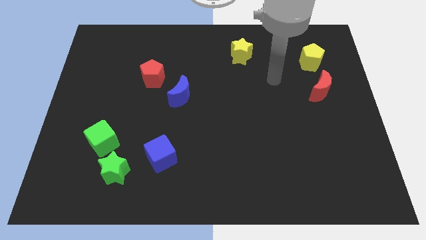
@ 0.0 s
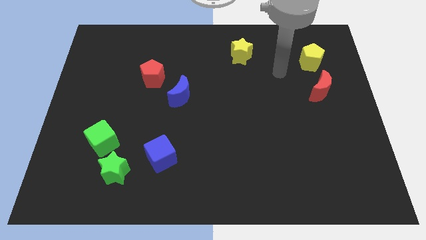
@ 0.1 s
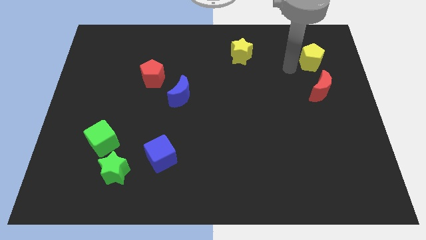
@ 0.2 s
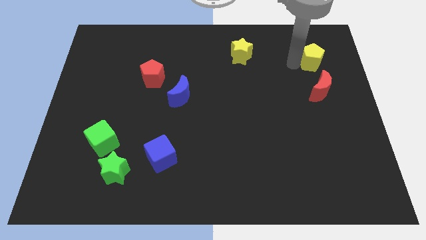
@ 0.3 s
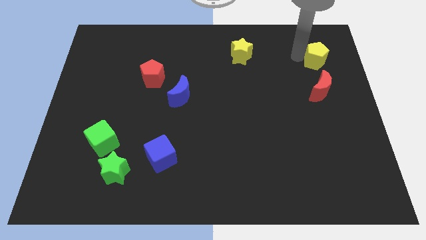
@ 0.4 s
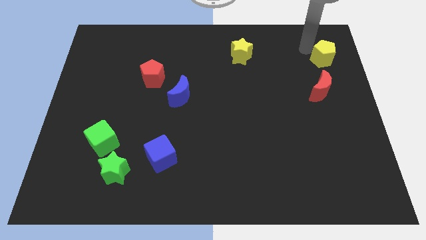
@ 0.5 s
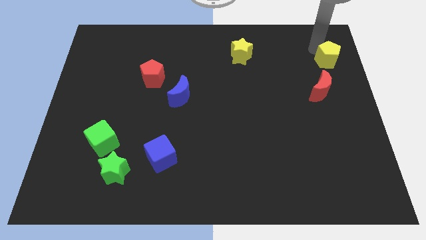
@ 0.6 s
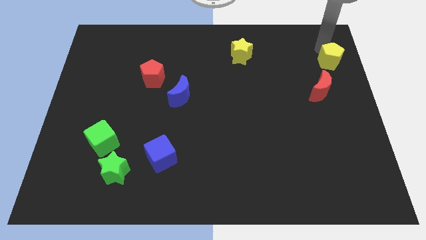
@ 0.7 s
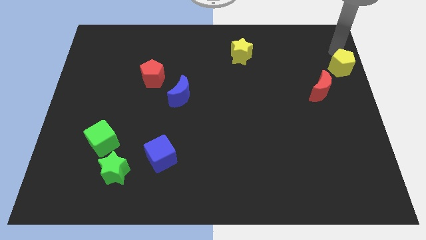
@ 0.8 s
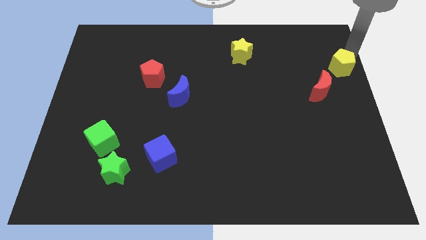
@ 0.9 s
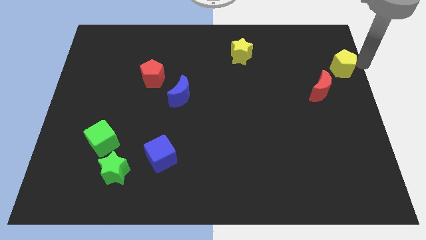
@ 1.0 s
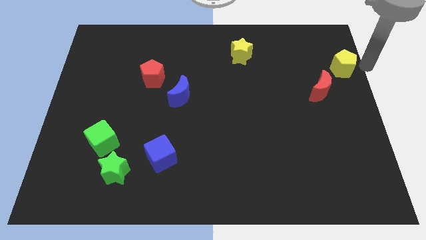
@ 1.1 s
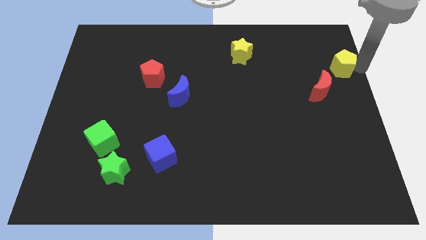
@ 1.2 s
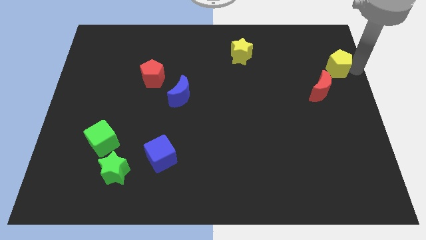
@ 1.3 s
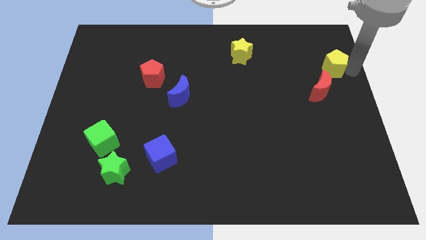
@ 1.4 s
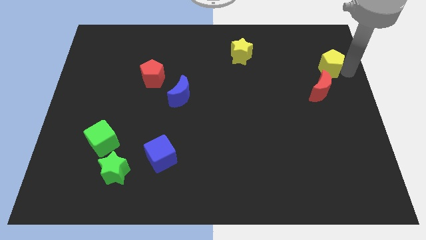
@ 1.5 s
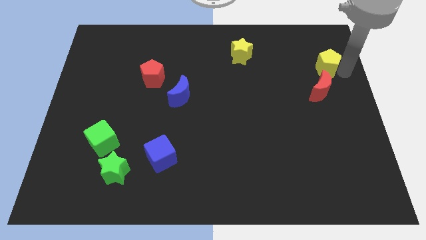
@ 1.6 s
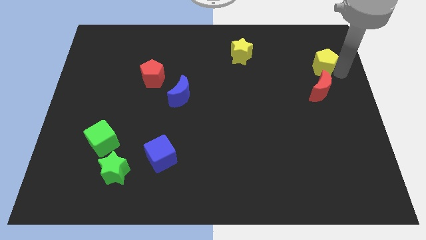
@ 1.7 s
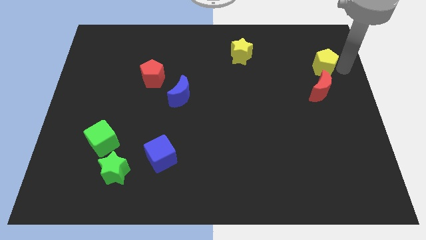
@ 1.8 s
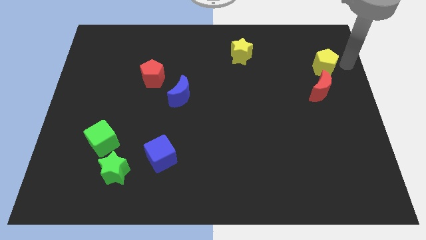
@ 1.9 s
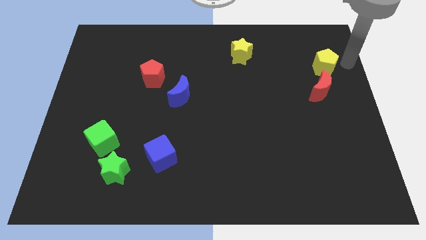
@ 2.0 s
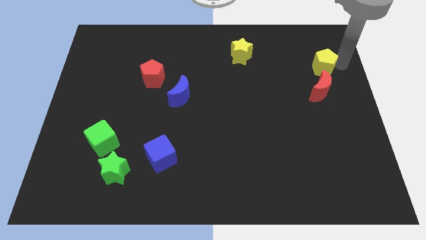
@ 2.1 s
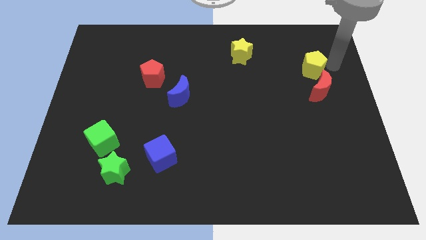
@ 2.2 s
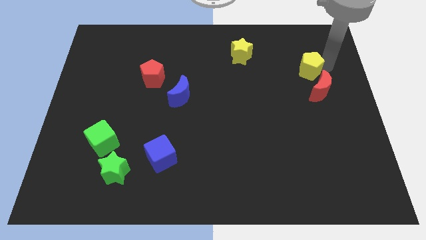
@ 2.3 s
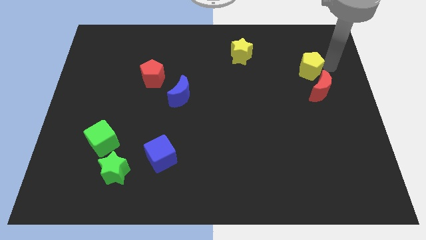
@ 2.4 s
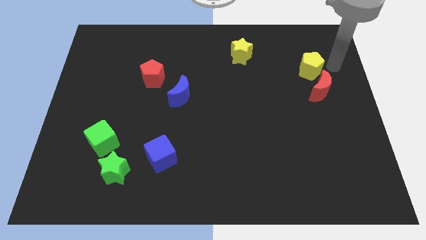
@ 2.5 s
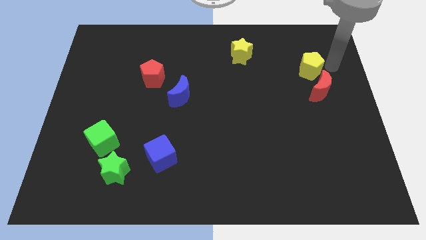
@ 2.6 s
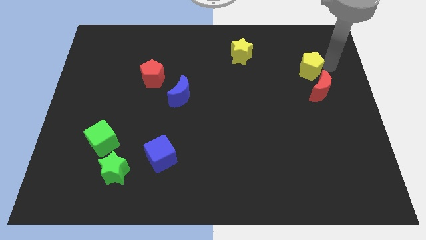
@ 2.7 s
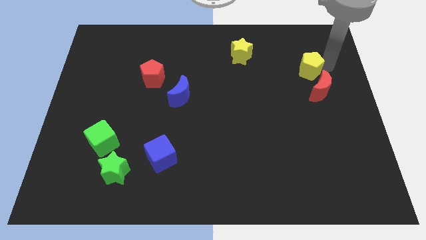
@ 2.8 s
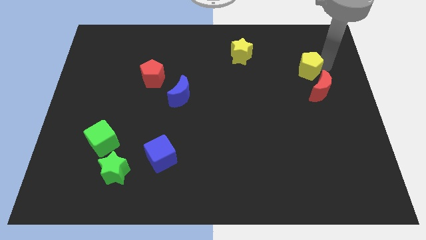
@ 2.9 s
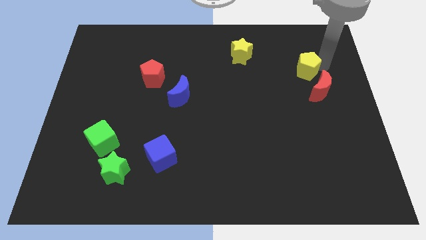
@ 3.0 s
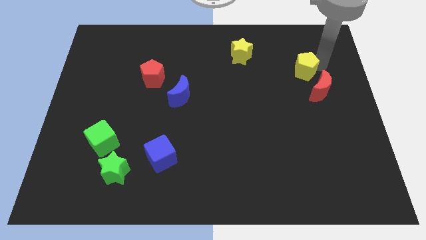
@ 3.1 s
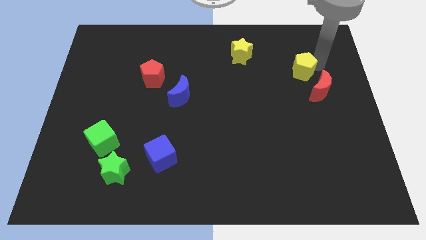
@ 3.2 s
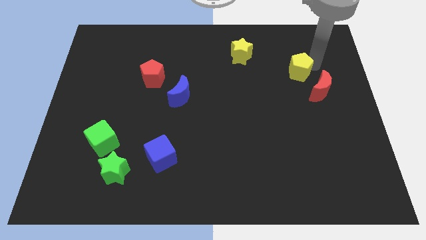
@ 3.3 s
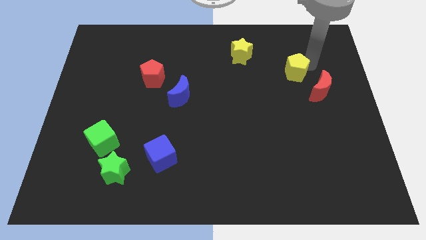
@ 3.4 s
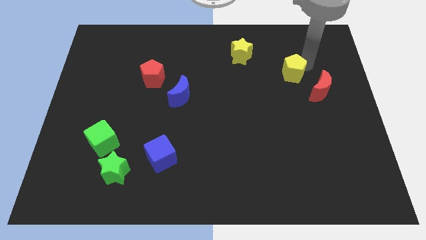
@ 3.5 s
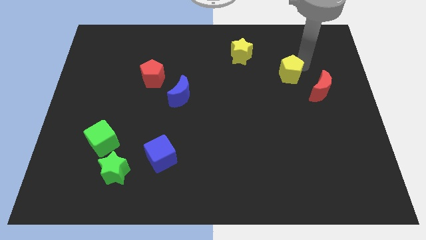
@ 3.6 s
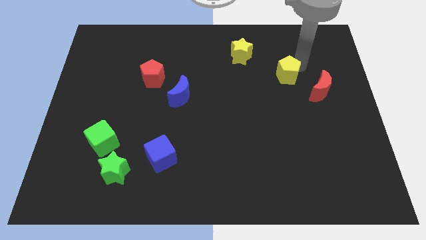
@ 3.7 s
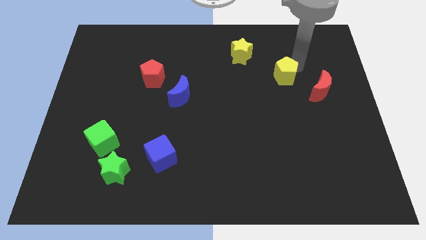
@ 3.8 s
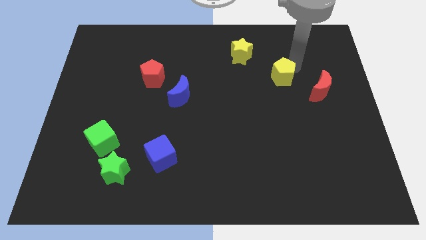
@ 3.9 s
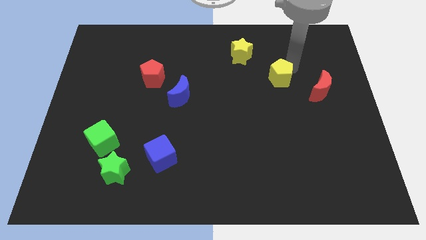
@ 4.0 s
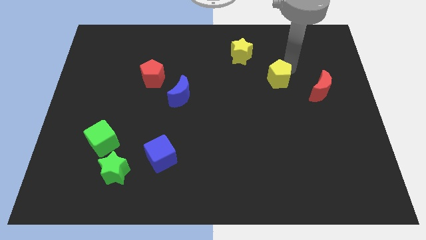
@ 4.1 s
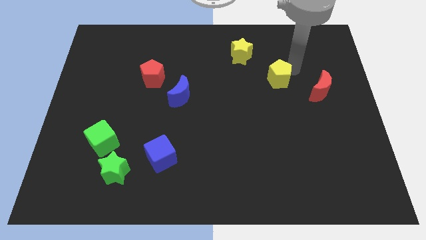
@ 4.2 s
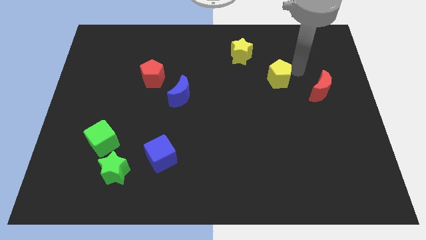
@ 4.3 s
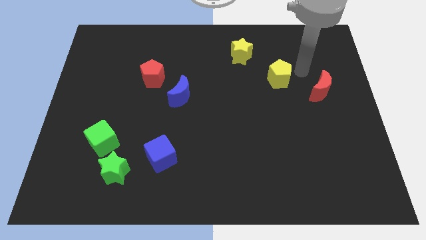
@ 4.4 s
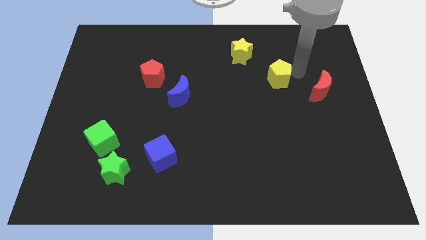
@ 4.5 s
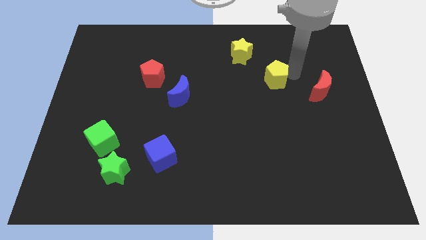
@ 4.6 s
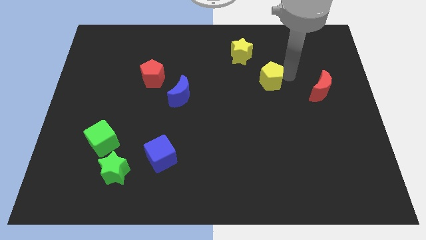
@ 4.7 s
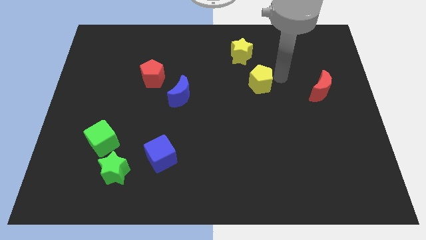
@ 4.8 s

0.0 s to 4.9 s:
push the yellow pentagon to the middle

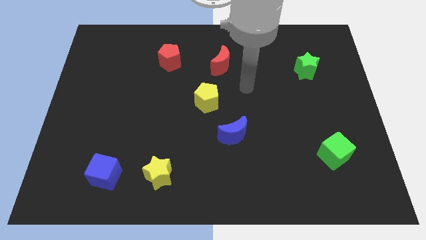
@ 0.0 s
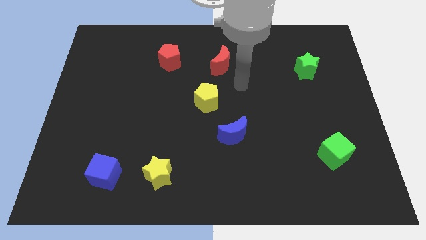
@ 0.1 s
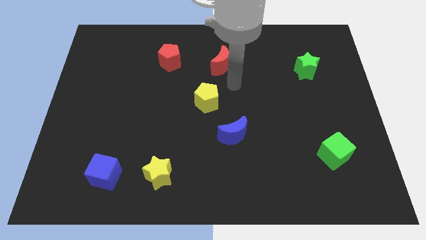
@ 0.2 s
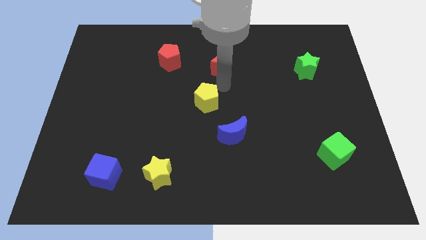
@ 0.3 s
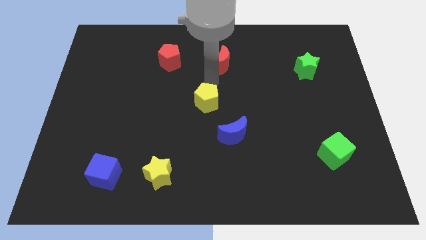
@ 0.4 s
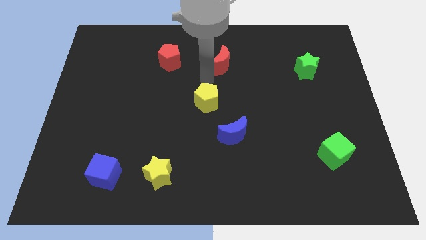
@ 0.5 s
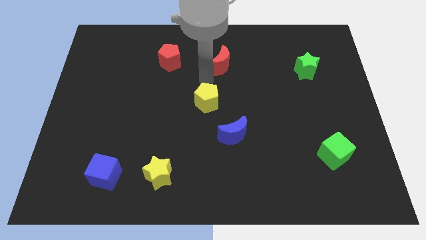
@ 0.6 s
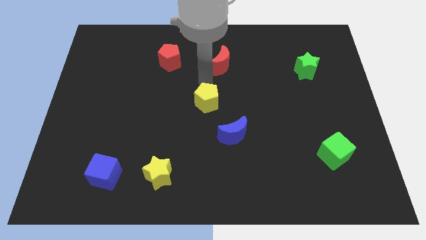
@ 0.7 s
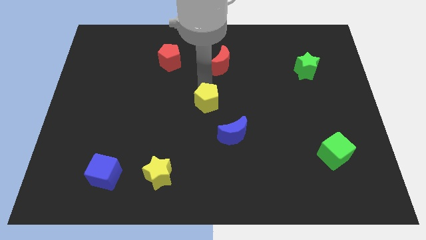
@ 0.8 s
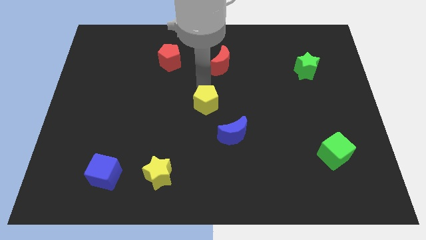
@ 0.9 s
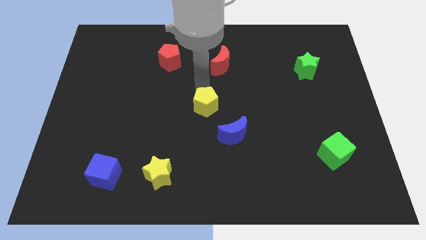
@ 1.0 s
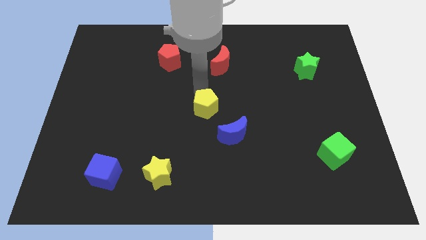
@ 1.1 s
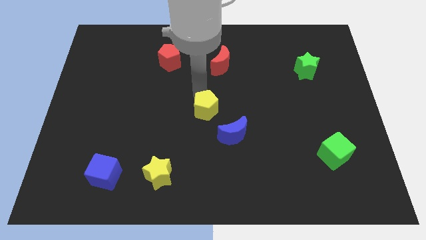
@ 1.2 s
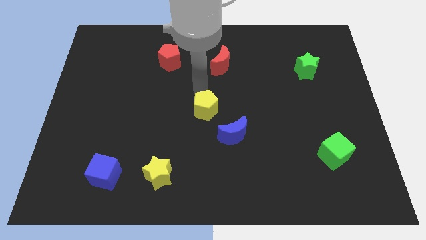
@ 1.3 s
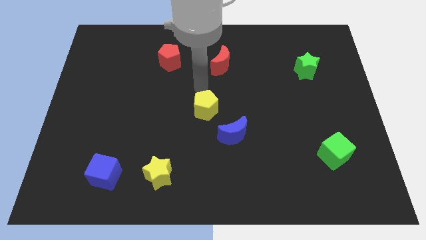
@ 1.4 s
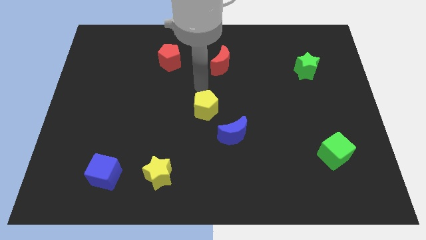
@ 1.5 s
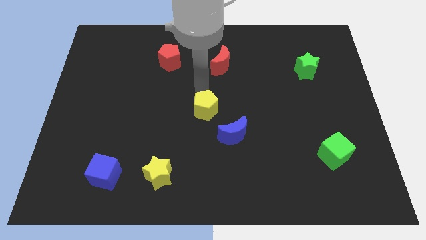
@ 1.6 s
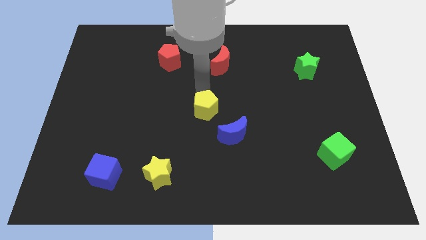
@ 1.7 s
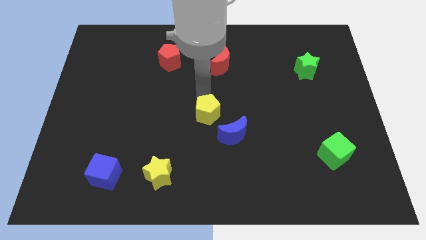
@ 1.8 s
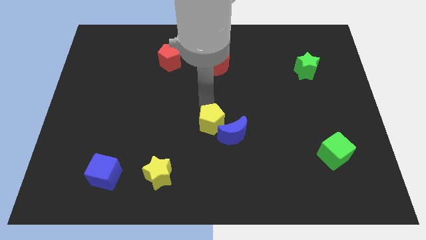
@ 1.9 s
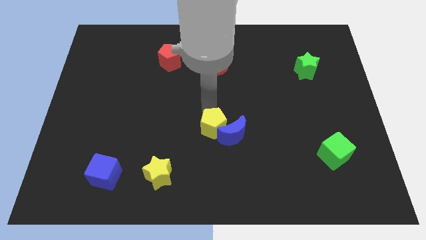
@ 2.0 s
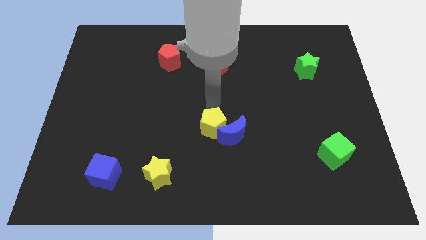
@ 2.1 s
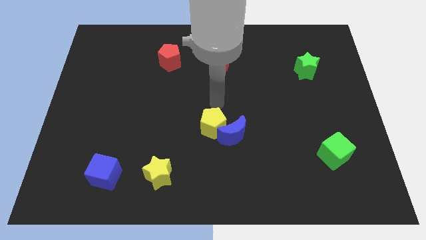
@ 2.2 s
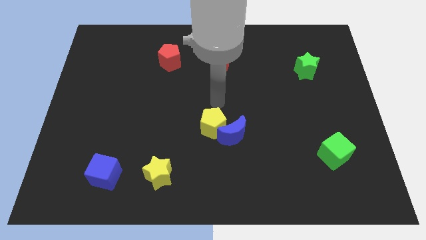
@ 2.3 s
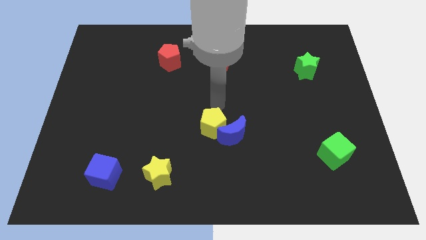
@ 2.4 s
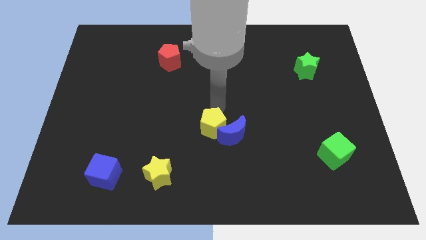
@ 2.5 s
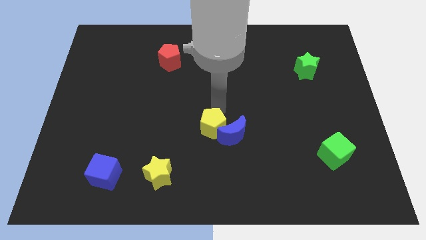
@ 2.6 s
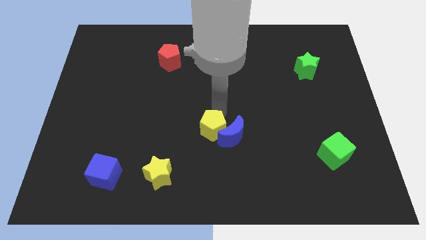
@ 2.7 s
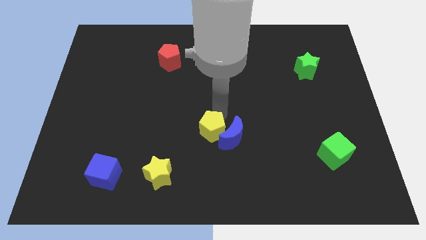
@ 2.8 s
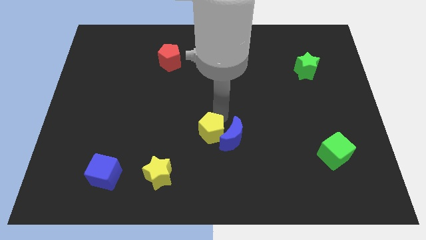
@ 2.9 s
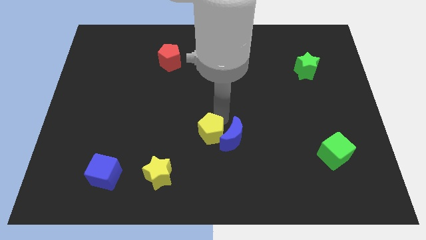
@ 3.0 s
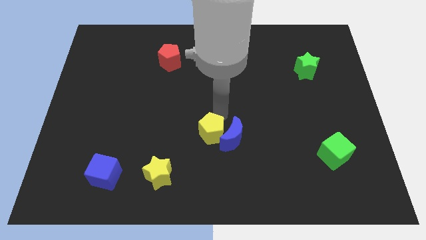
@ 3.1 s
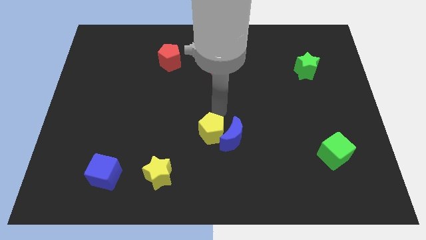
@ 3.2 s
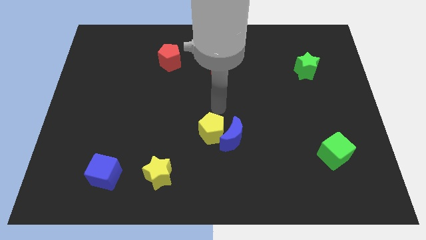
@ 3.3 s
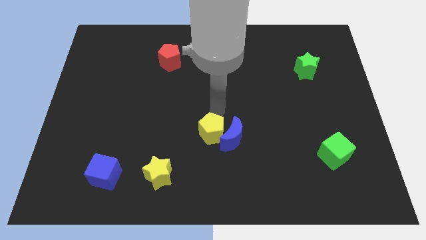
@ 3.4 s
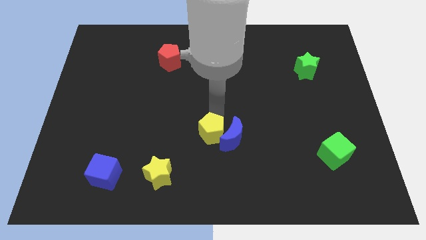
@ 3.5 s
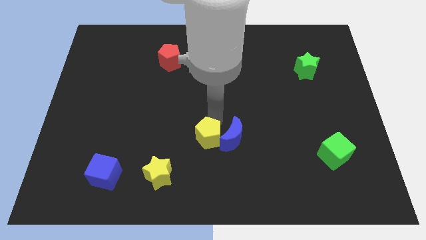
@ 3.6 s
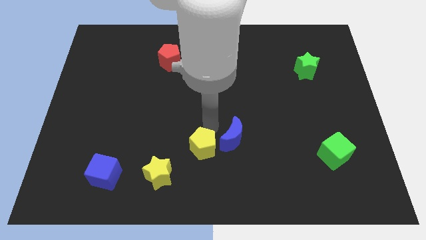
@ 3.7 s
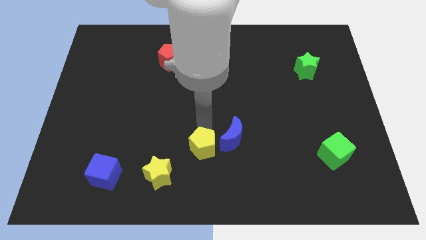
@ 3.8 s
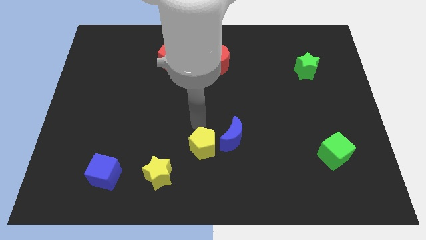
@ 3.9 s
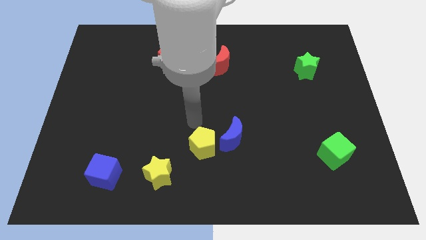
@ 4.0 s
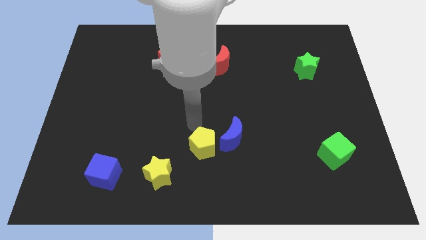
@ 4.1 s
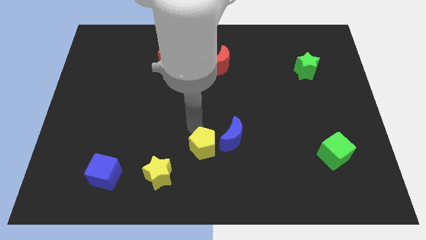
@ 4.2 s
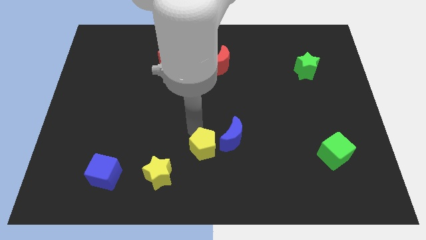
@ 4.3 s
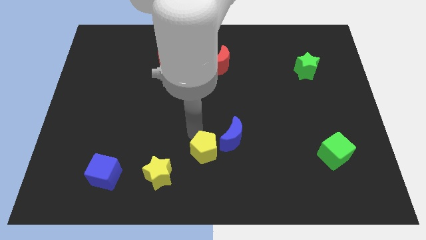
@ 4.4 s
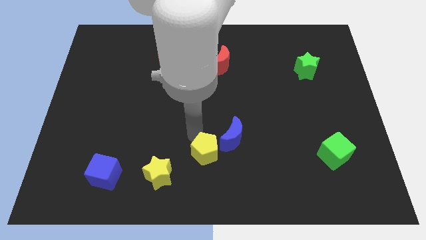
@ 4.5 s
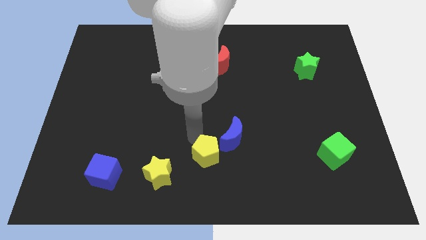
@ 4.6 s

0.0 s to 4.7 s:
slide the yellow pentagon to the bottom
